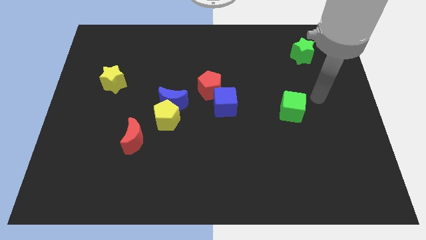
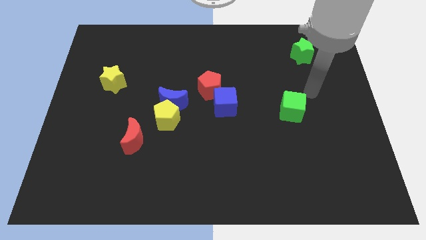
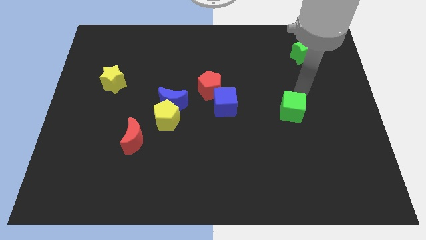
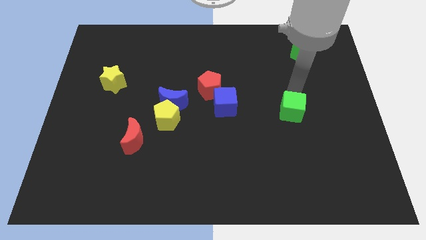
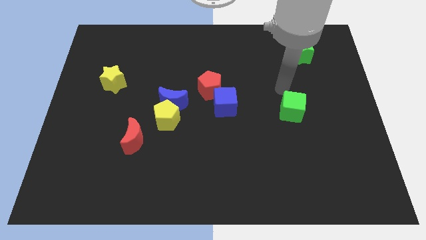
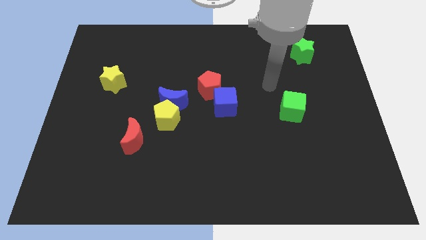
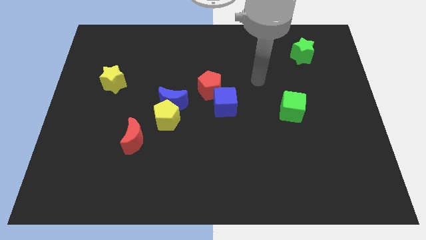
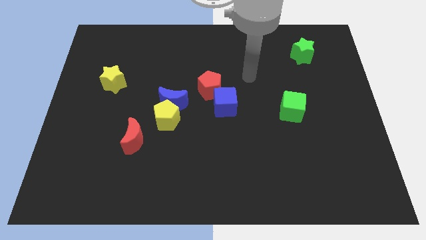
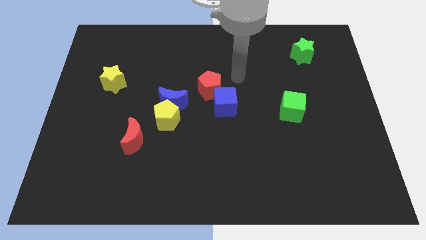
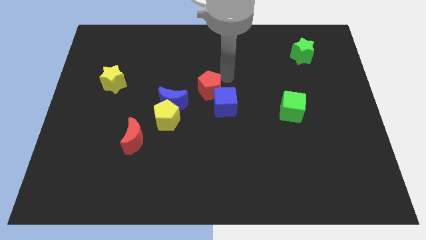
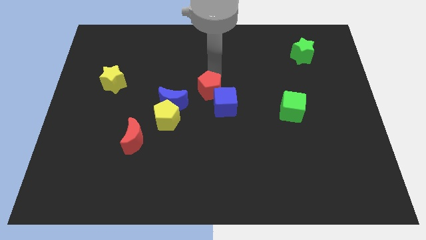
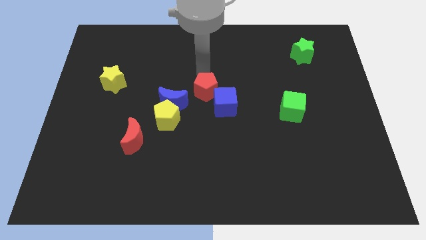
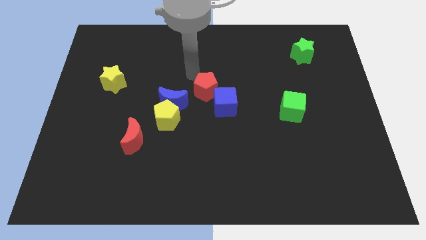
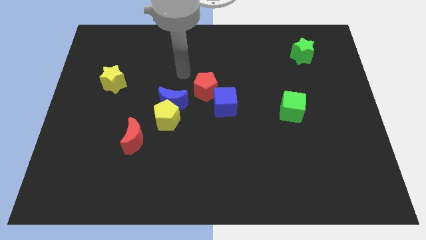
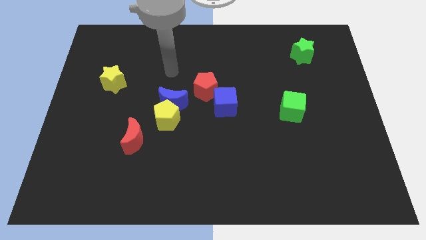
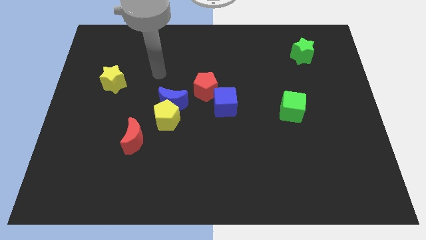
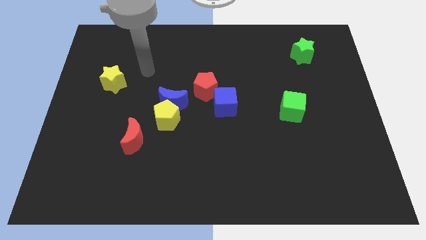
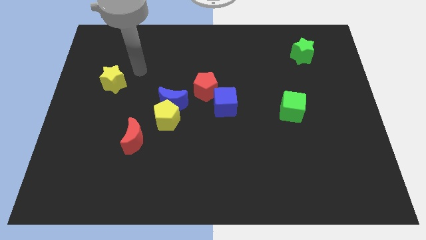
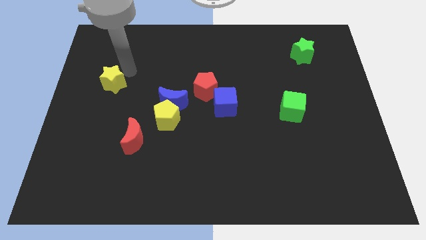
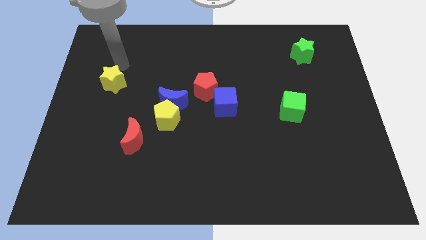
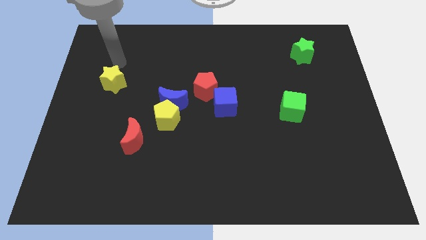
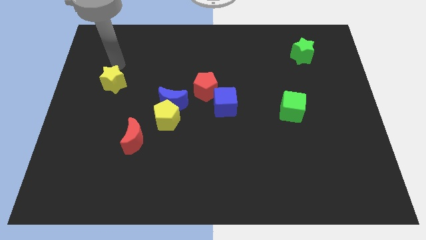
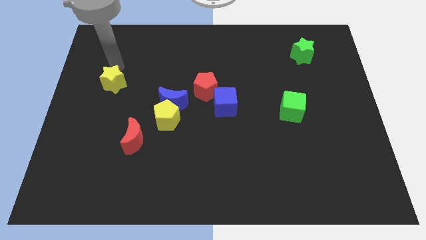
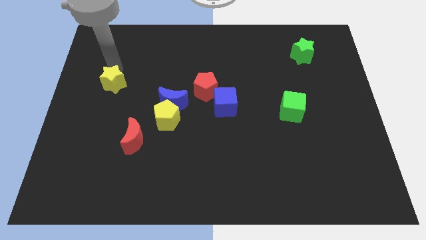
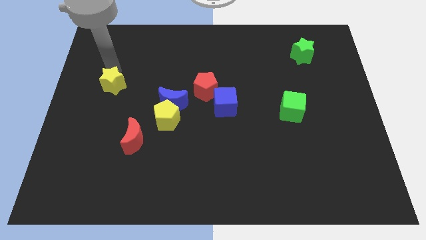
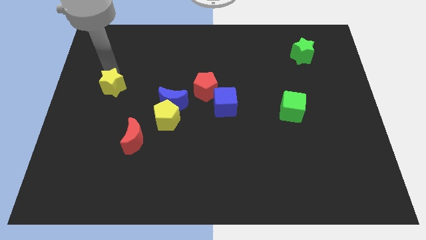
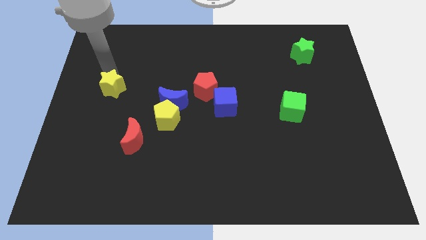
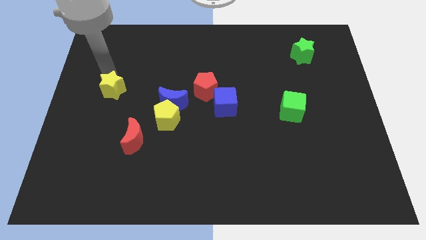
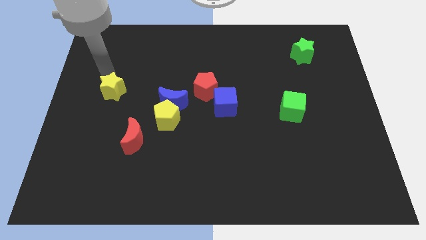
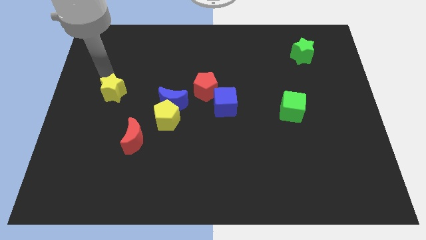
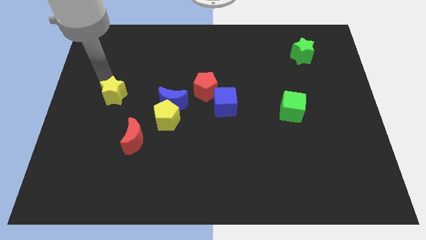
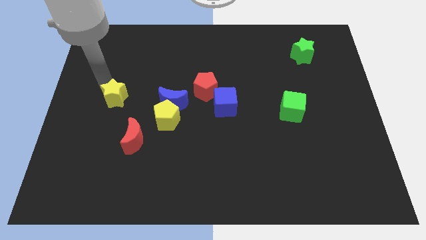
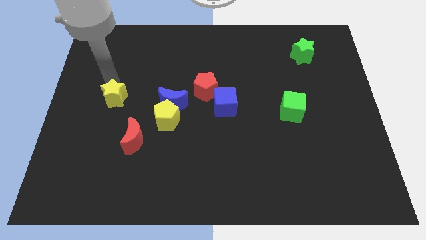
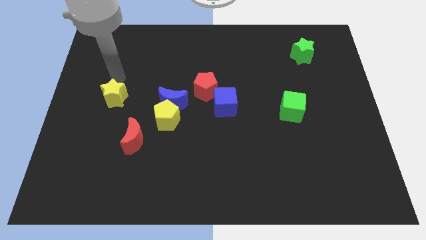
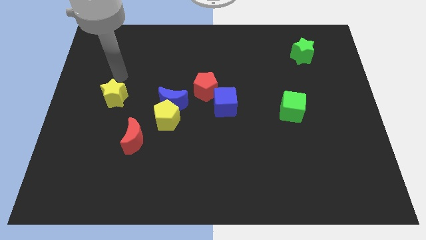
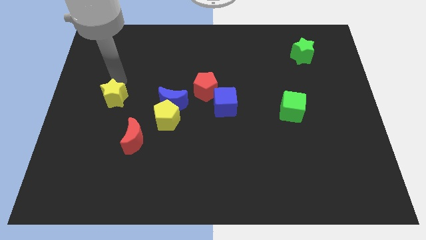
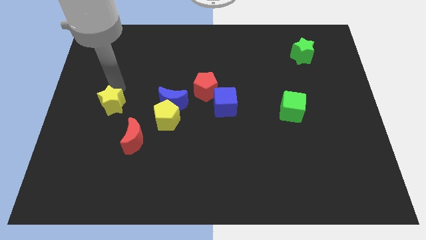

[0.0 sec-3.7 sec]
slightly move the yellow star down

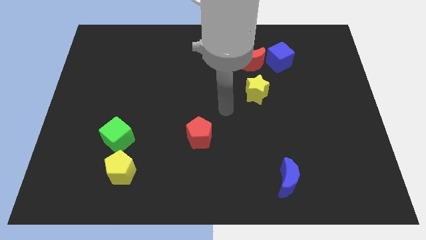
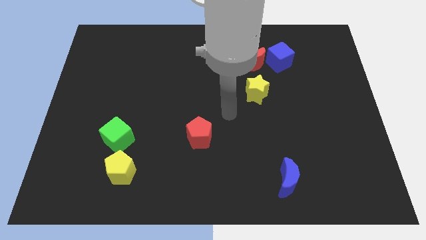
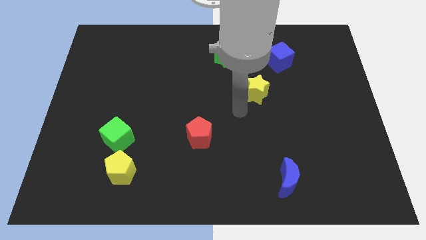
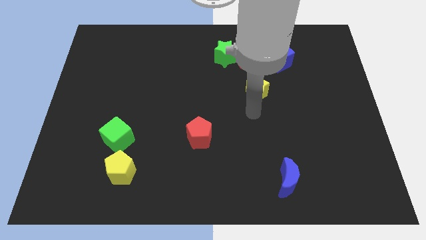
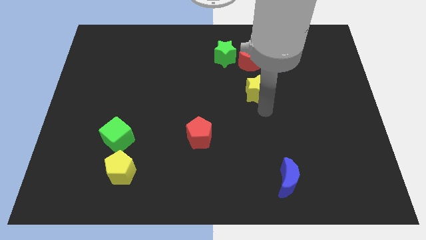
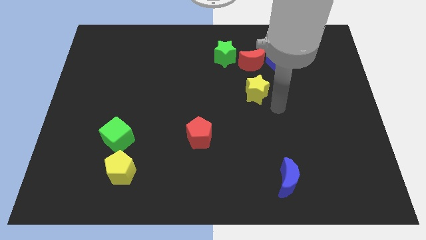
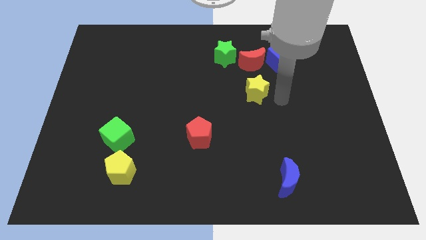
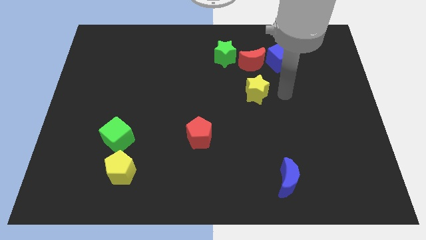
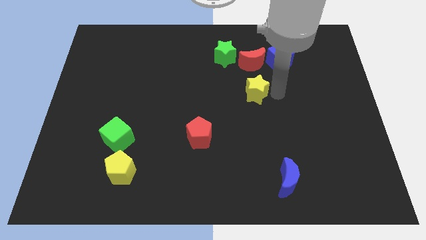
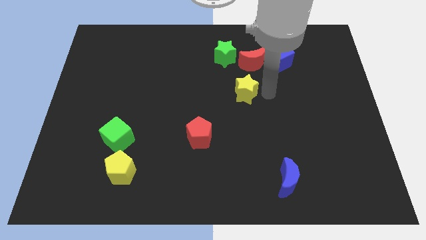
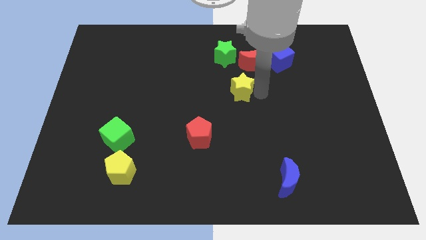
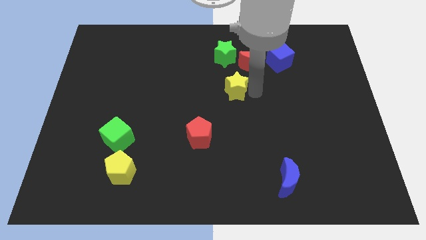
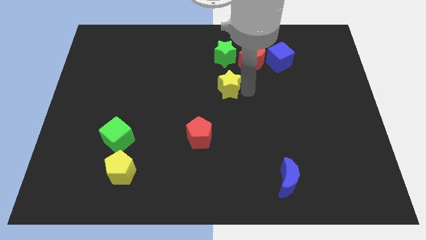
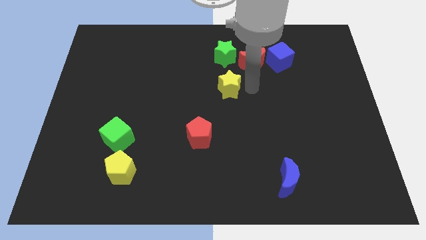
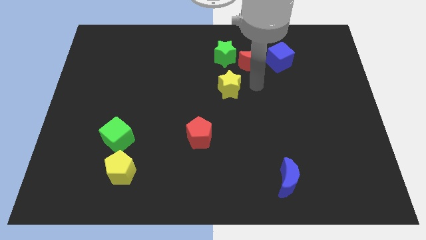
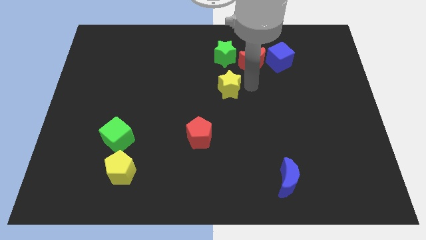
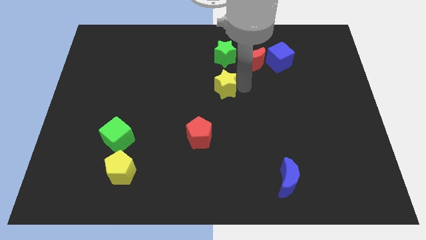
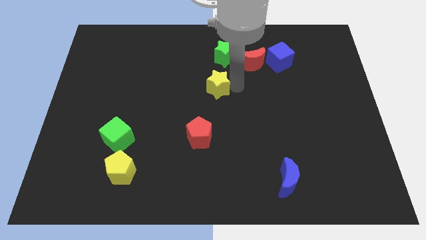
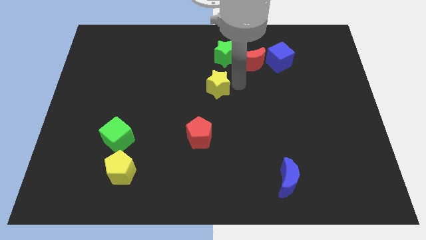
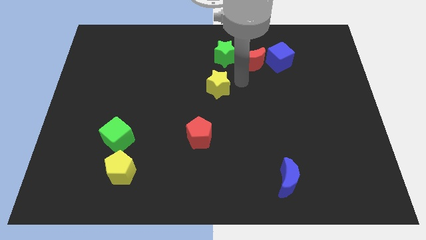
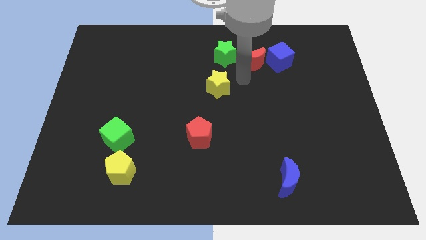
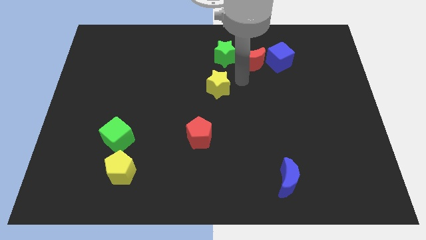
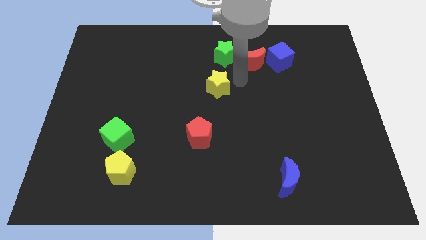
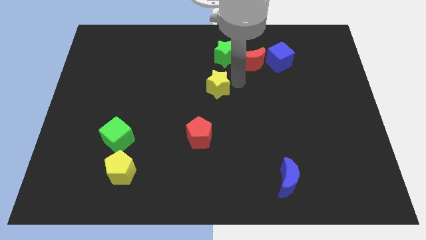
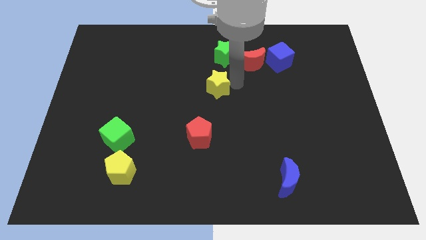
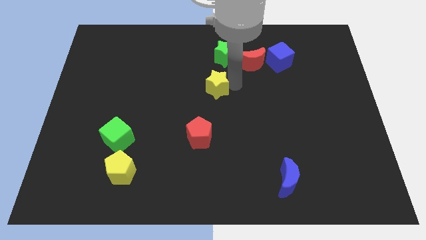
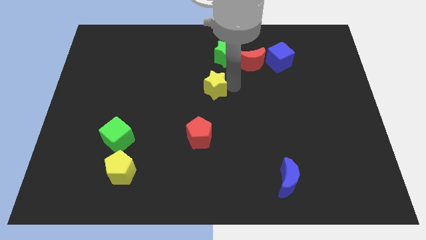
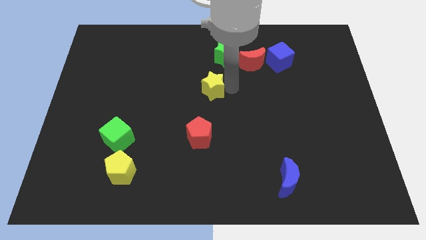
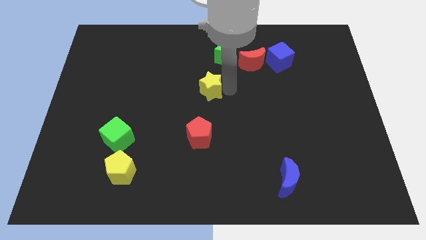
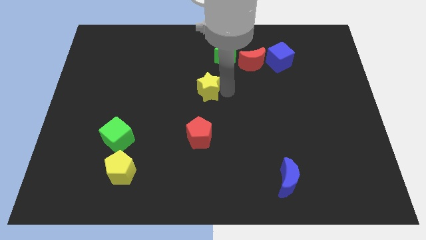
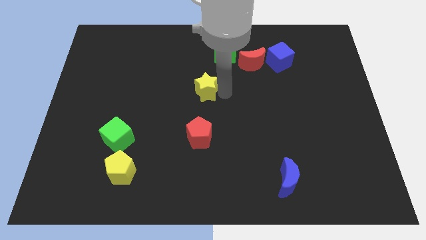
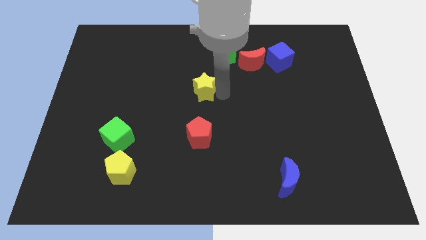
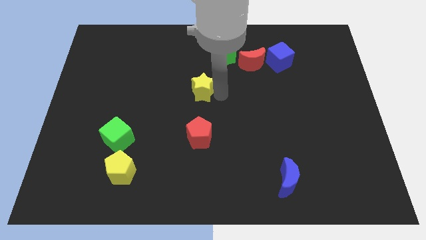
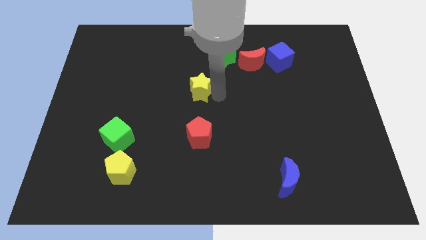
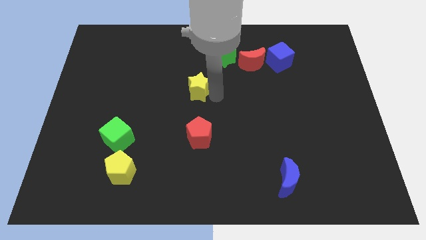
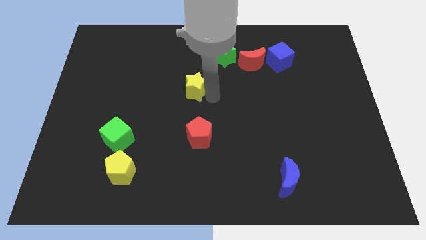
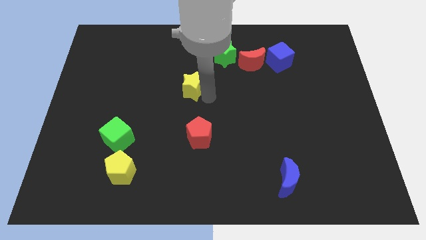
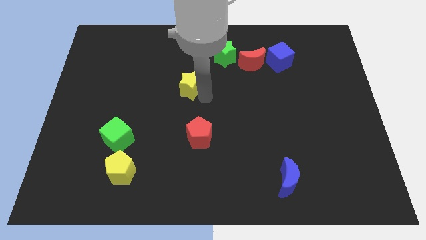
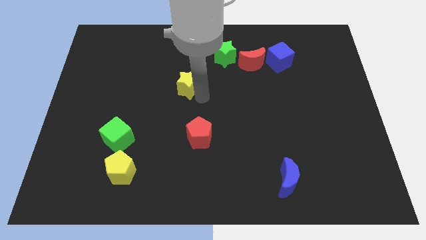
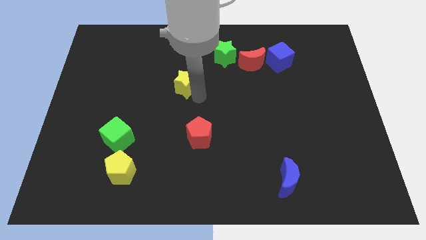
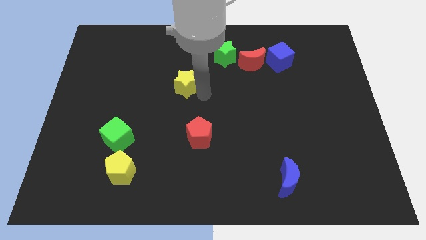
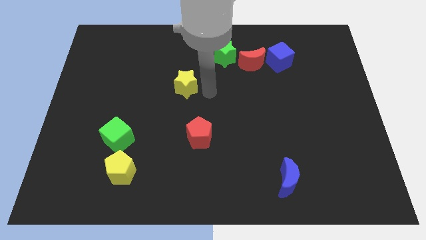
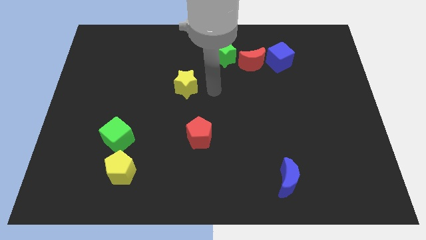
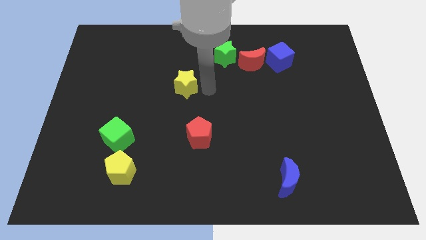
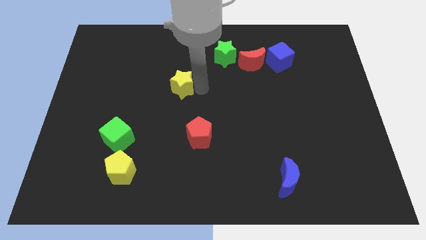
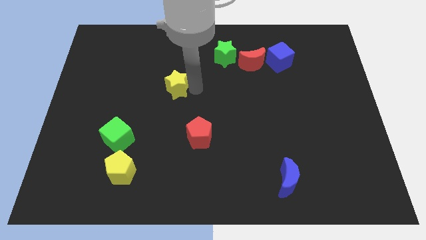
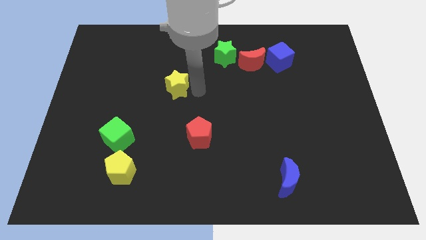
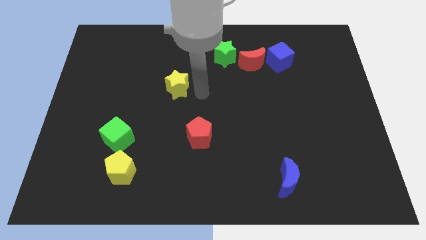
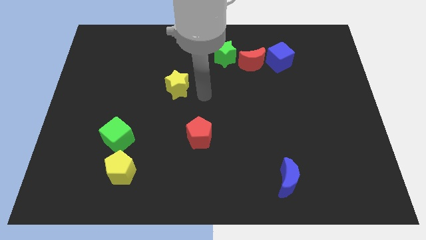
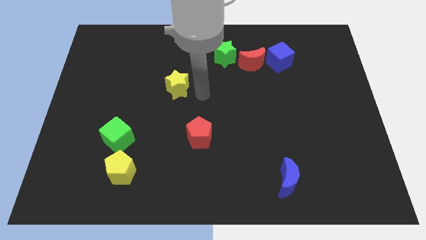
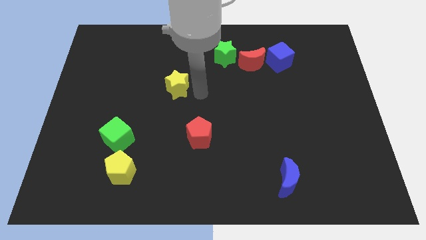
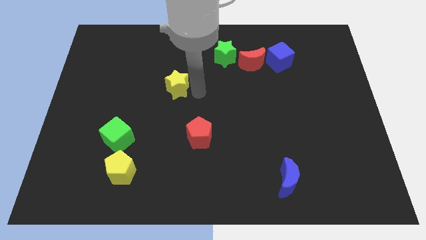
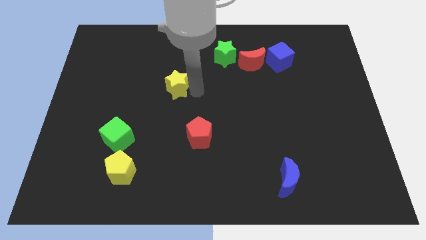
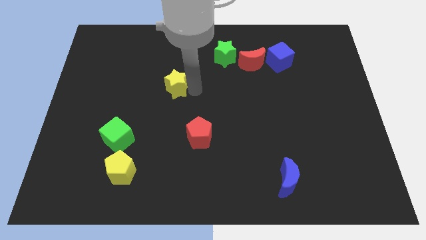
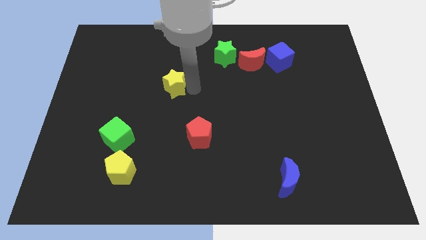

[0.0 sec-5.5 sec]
move the yellow star left
